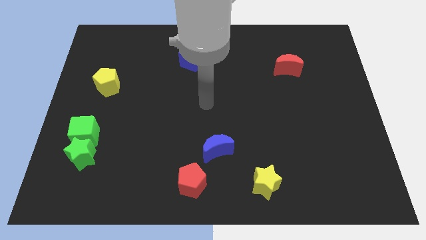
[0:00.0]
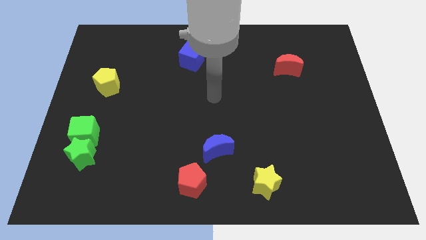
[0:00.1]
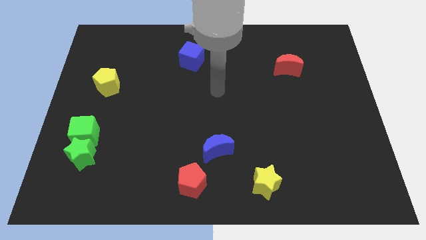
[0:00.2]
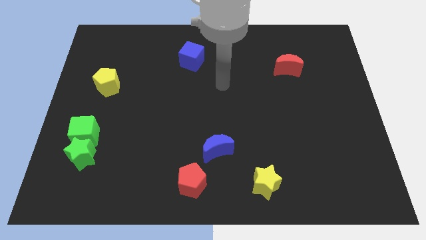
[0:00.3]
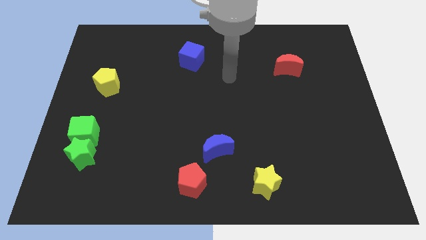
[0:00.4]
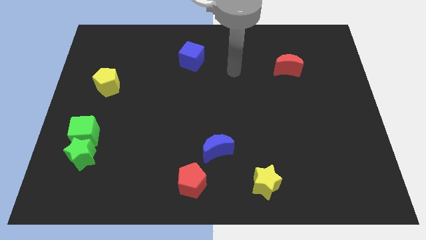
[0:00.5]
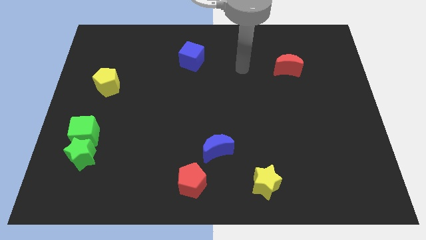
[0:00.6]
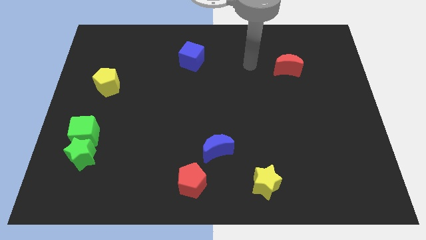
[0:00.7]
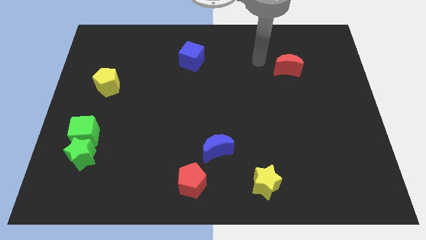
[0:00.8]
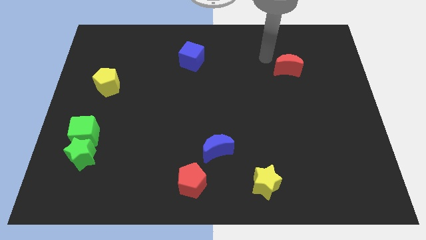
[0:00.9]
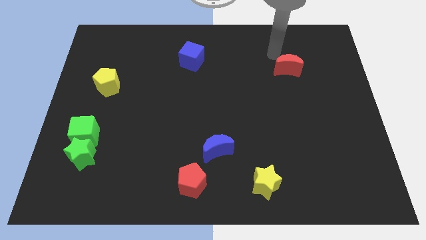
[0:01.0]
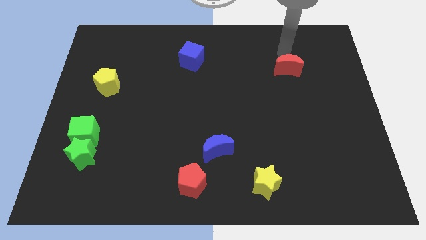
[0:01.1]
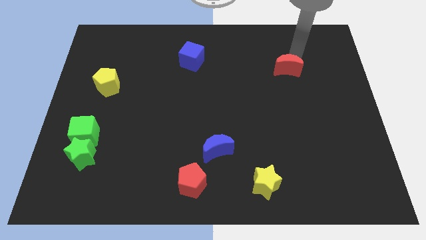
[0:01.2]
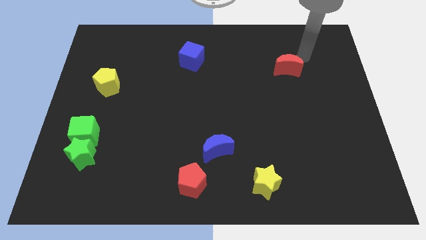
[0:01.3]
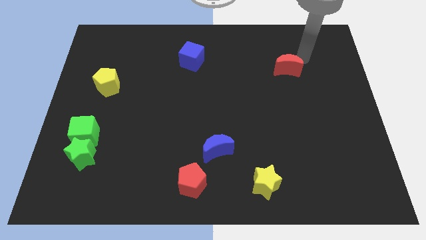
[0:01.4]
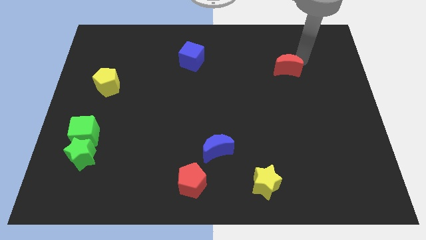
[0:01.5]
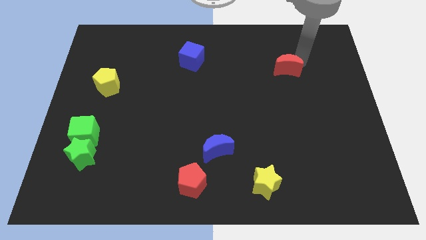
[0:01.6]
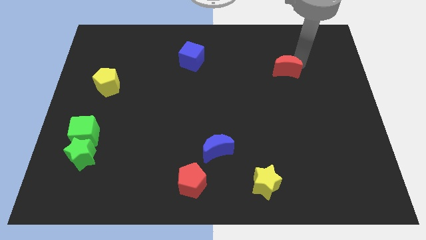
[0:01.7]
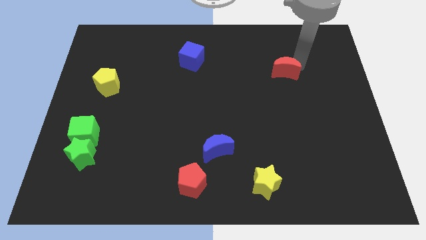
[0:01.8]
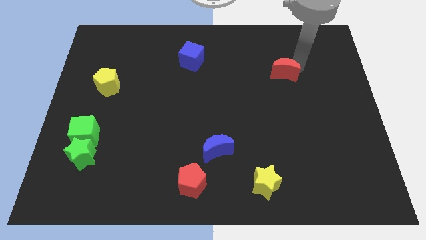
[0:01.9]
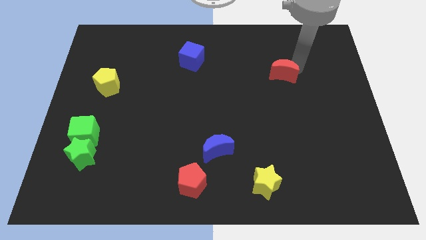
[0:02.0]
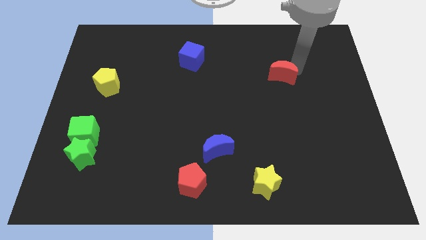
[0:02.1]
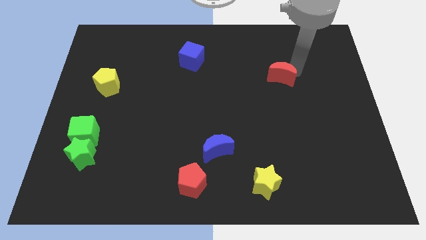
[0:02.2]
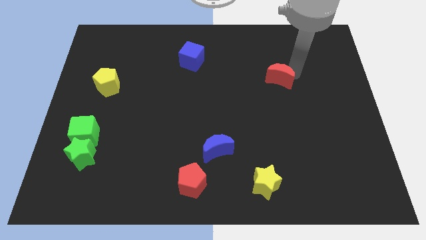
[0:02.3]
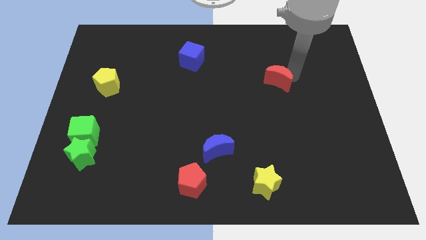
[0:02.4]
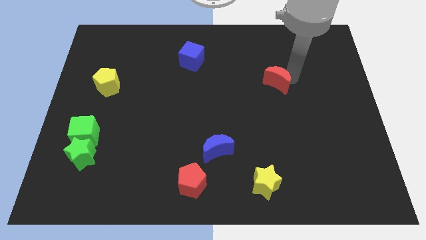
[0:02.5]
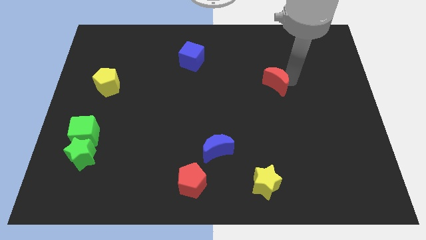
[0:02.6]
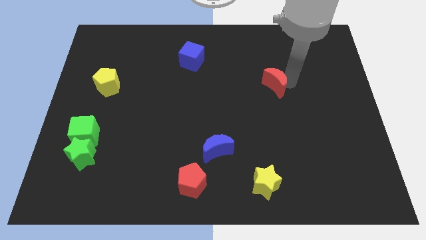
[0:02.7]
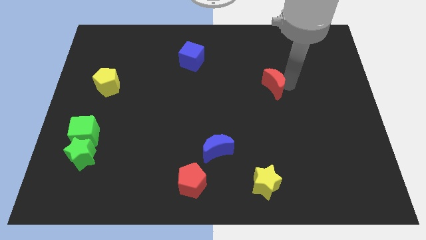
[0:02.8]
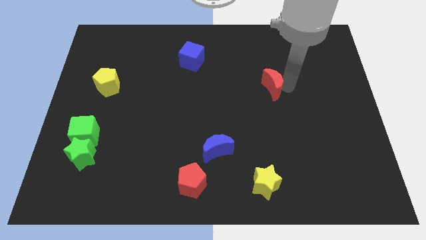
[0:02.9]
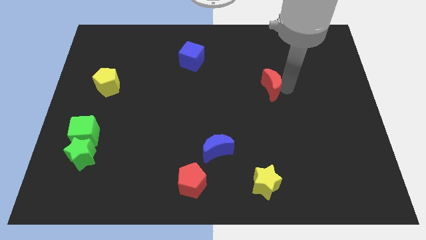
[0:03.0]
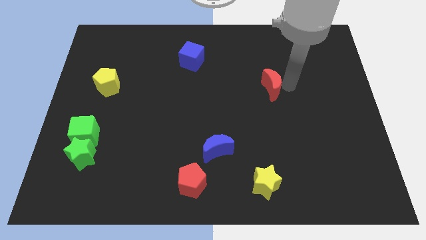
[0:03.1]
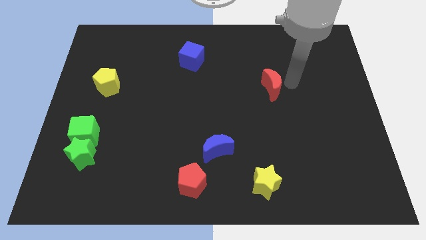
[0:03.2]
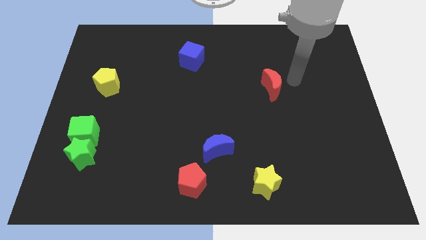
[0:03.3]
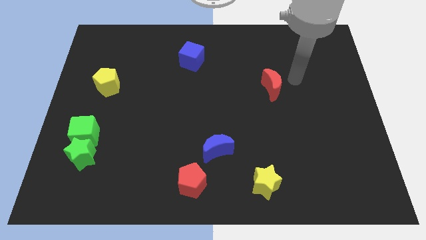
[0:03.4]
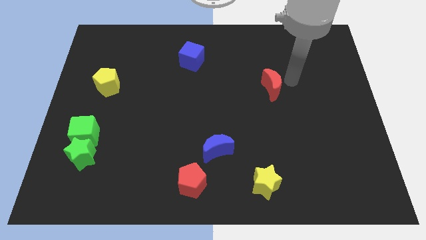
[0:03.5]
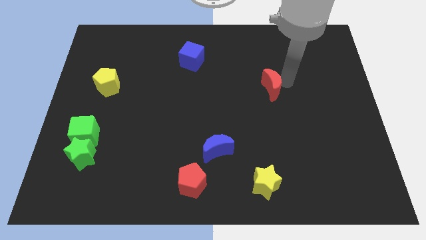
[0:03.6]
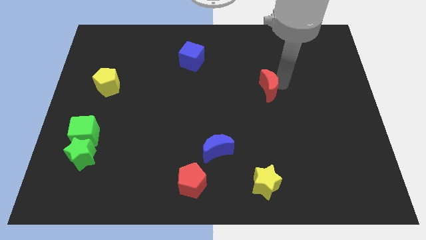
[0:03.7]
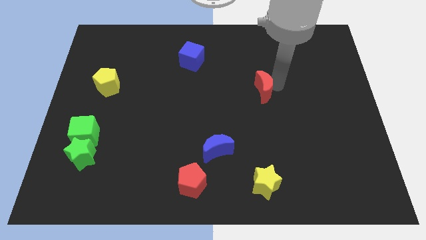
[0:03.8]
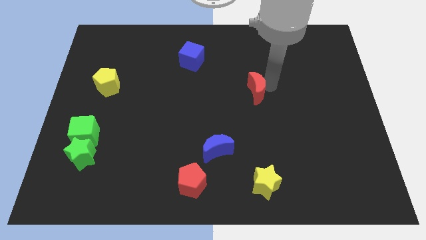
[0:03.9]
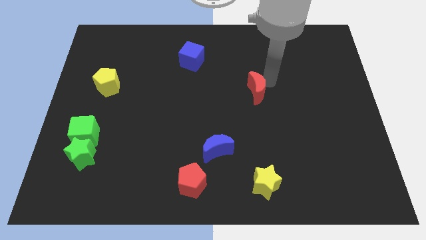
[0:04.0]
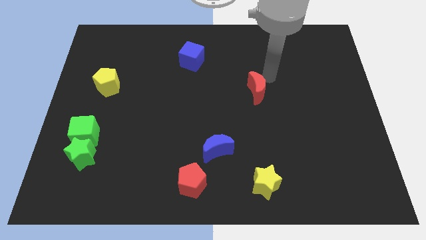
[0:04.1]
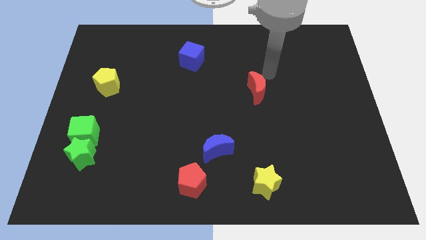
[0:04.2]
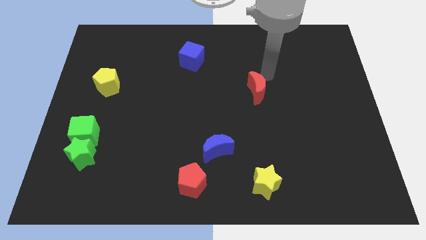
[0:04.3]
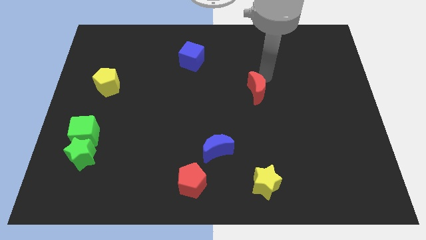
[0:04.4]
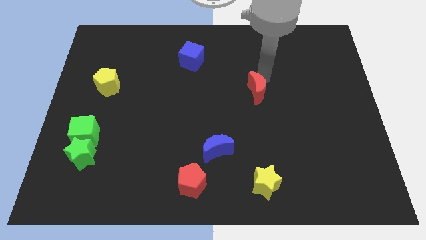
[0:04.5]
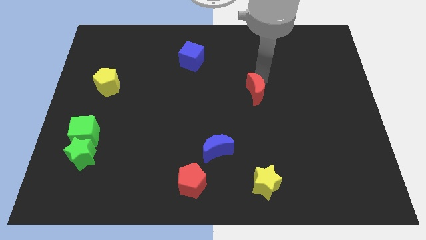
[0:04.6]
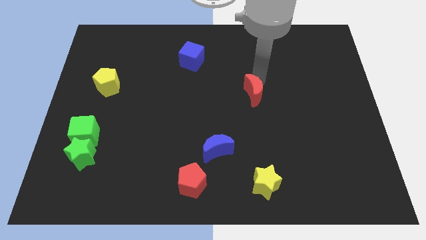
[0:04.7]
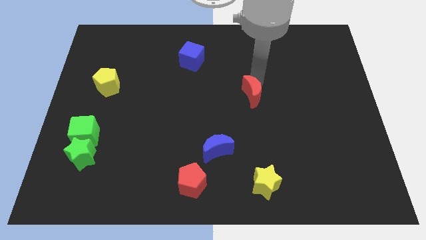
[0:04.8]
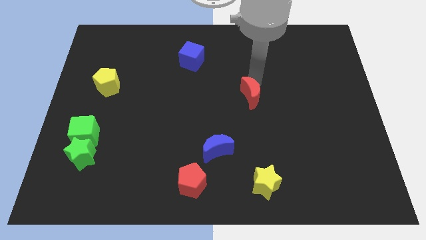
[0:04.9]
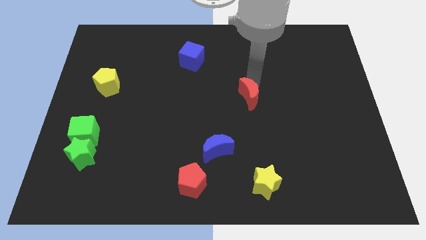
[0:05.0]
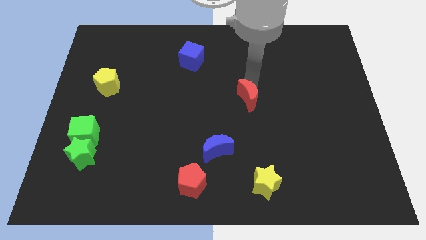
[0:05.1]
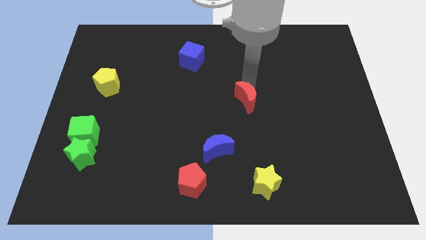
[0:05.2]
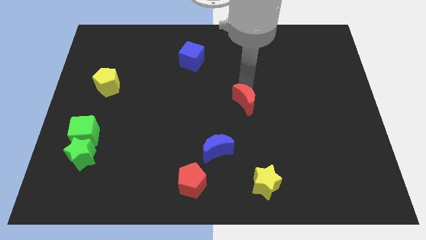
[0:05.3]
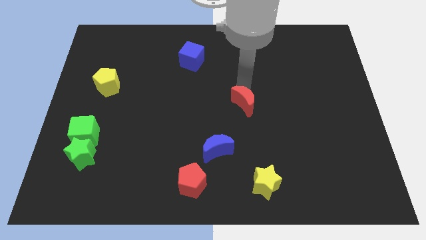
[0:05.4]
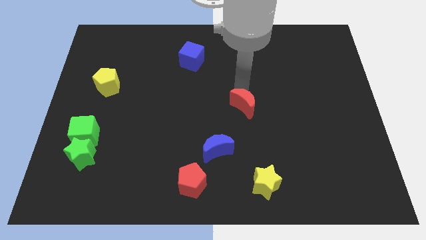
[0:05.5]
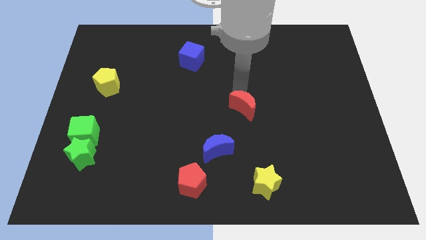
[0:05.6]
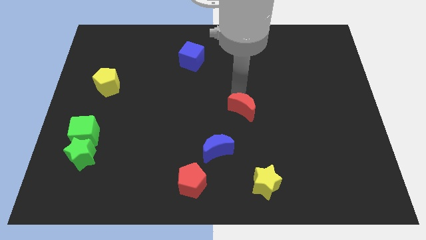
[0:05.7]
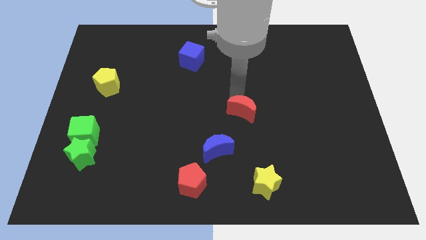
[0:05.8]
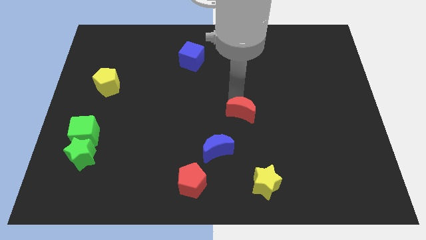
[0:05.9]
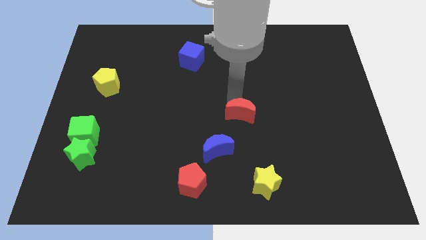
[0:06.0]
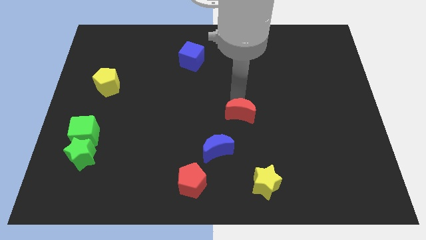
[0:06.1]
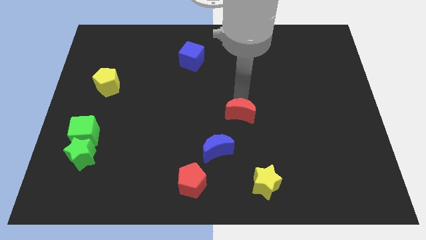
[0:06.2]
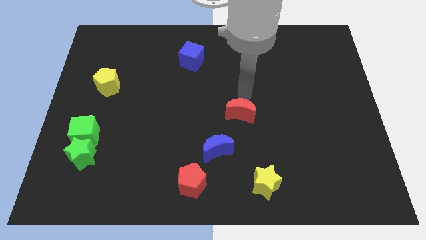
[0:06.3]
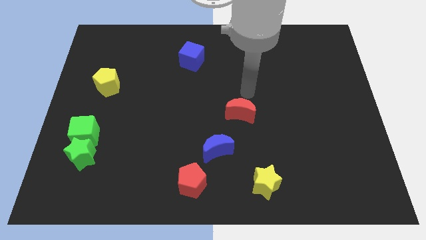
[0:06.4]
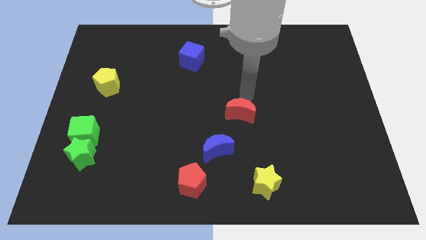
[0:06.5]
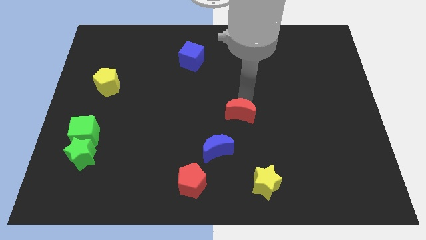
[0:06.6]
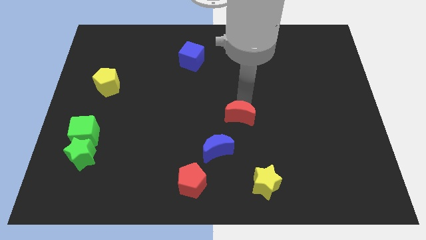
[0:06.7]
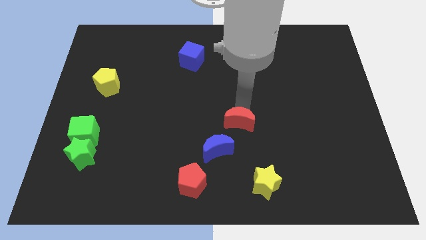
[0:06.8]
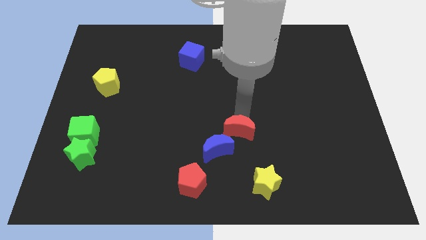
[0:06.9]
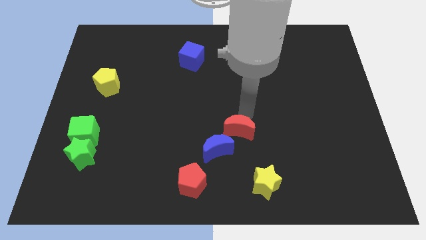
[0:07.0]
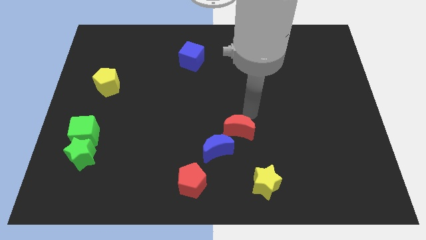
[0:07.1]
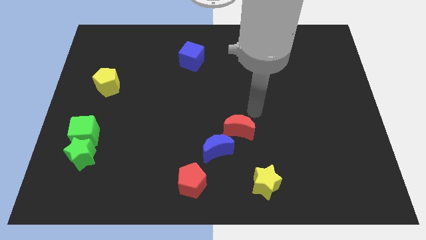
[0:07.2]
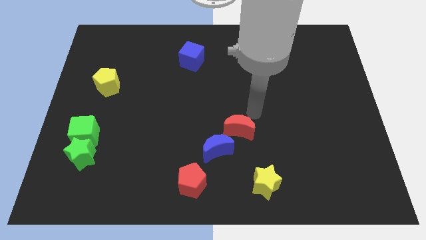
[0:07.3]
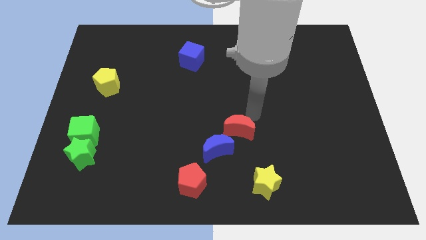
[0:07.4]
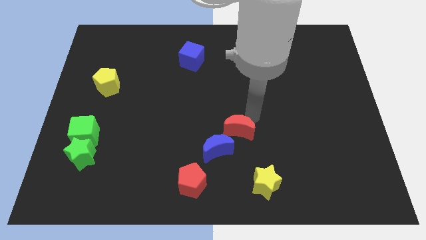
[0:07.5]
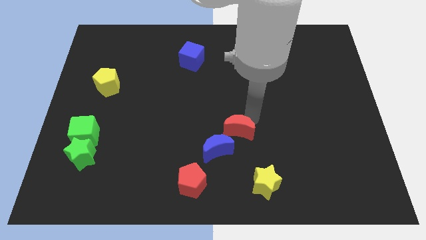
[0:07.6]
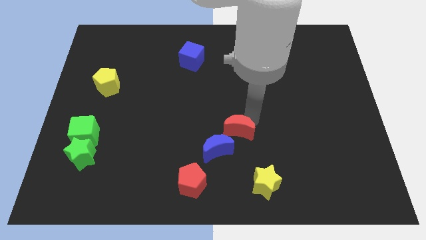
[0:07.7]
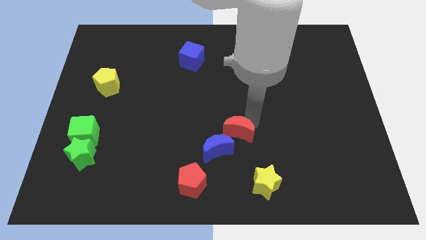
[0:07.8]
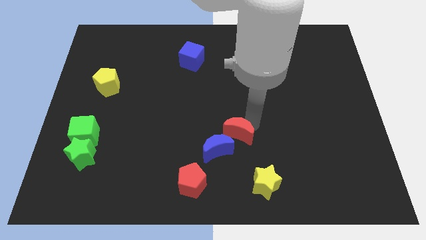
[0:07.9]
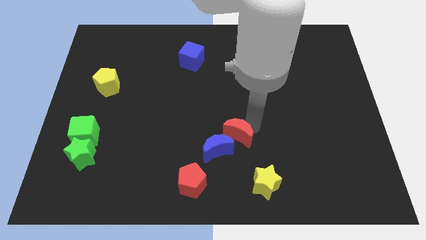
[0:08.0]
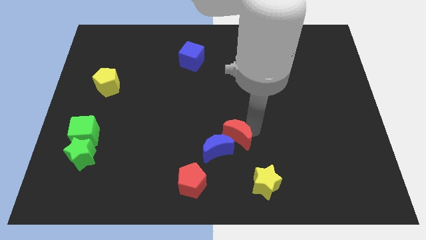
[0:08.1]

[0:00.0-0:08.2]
move the red moon next to the blue moon
